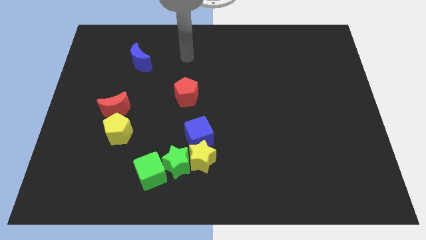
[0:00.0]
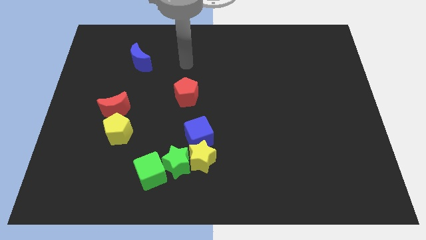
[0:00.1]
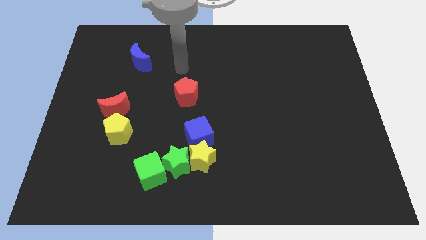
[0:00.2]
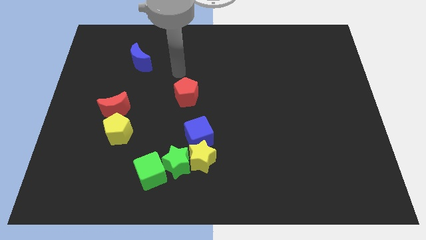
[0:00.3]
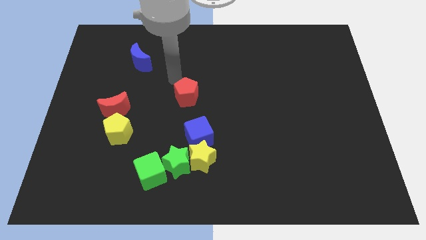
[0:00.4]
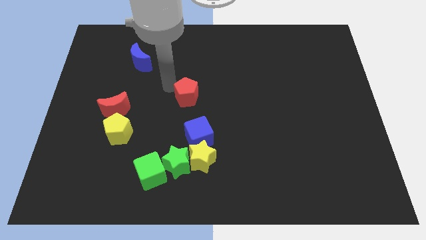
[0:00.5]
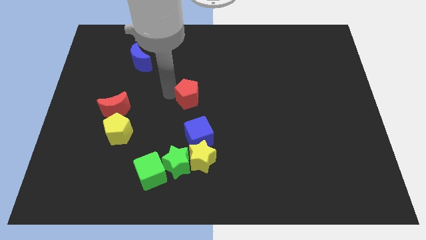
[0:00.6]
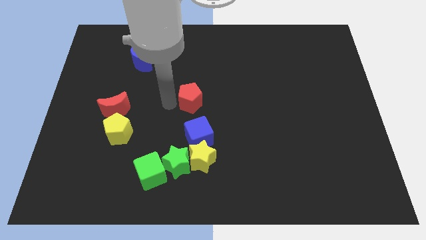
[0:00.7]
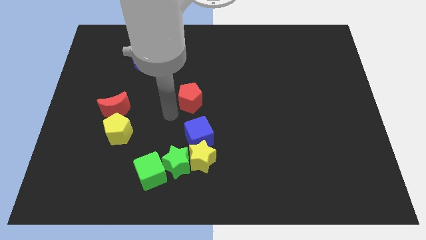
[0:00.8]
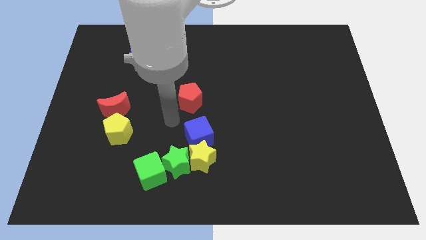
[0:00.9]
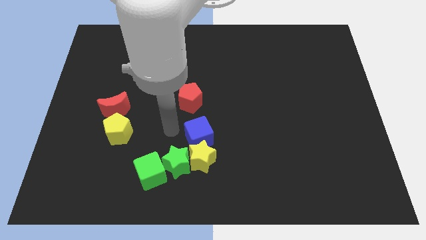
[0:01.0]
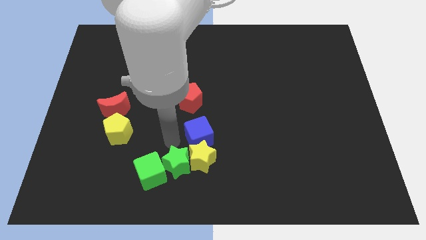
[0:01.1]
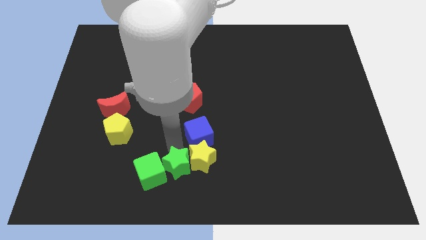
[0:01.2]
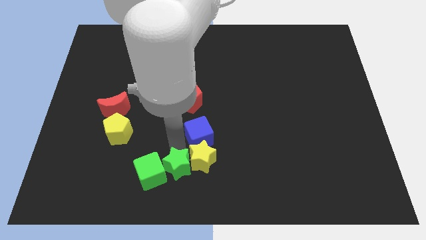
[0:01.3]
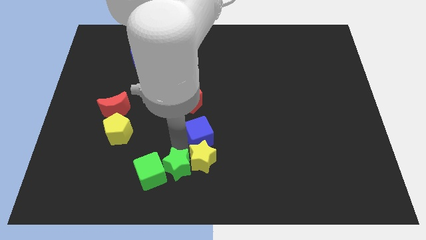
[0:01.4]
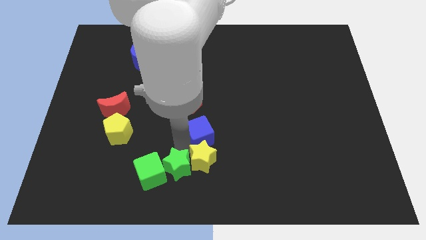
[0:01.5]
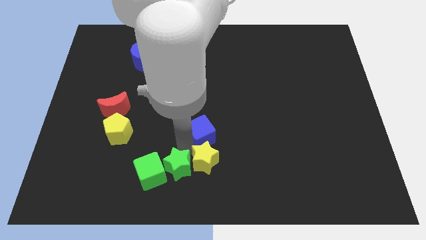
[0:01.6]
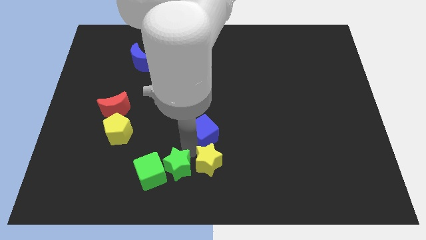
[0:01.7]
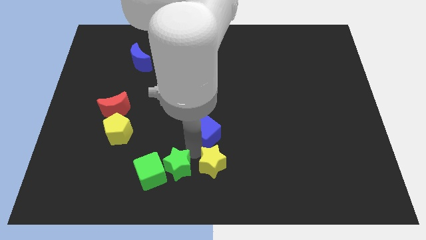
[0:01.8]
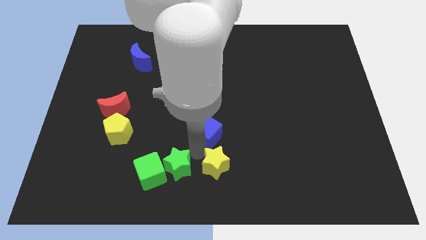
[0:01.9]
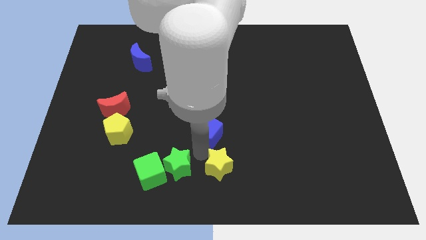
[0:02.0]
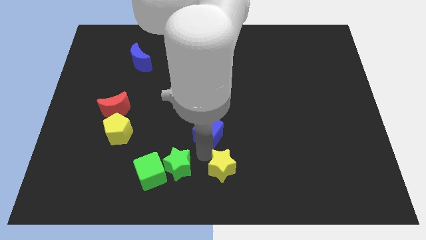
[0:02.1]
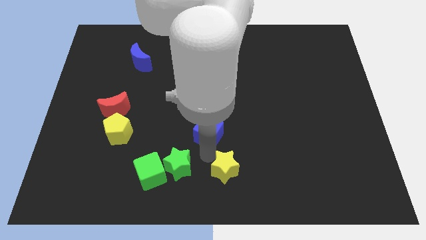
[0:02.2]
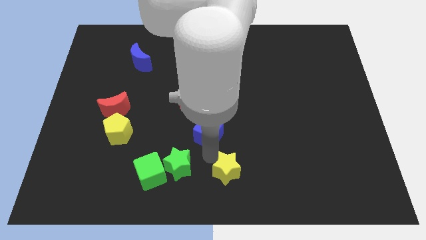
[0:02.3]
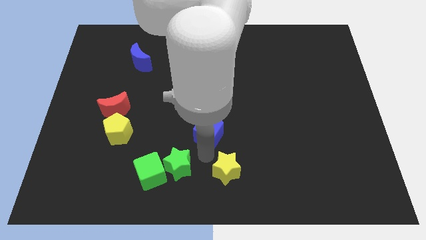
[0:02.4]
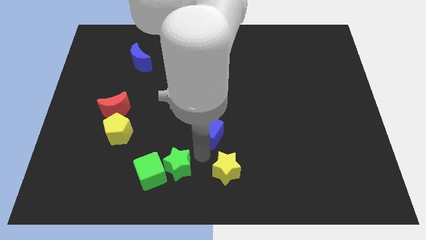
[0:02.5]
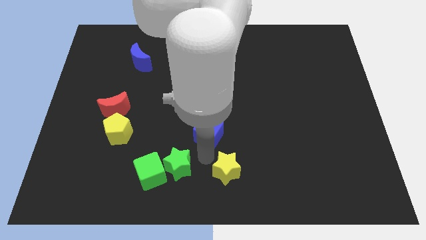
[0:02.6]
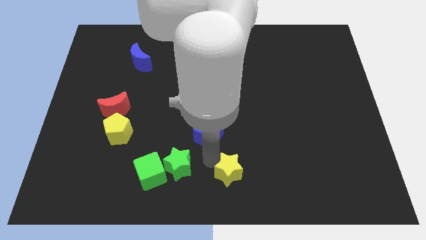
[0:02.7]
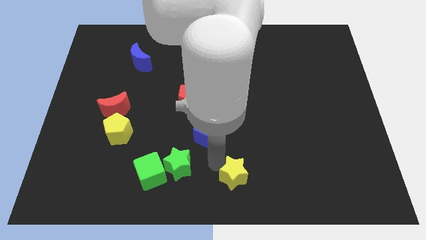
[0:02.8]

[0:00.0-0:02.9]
pull the yellow star apart from the green star and blue cube

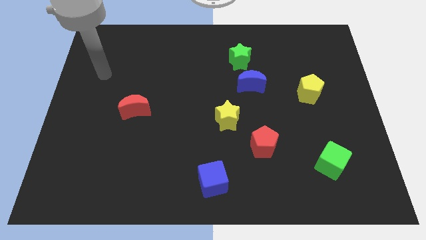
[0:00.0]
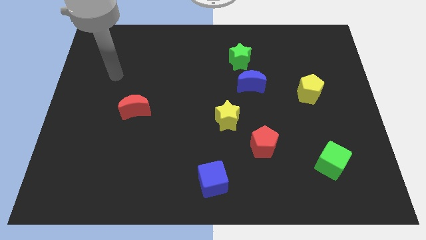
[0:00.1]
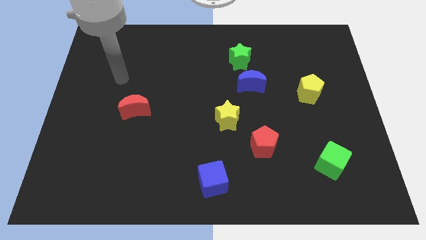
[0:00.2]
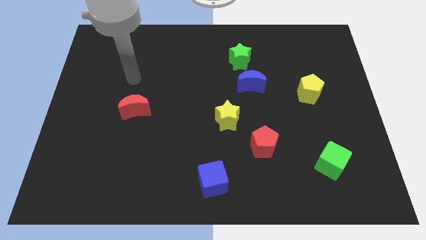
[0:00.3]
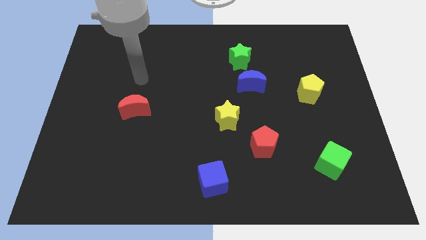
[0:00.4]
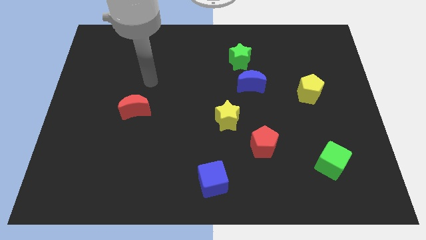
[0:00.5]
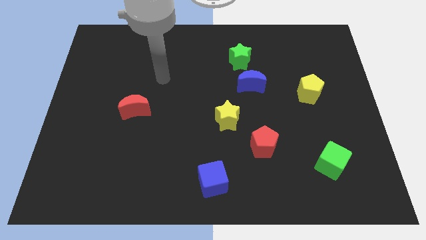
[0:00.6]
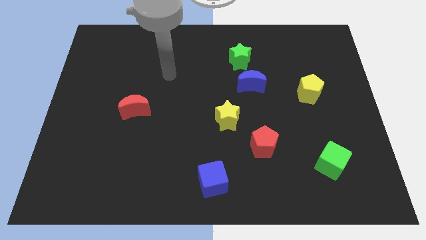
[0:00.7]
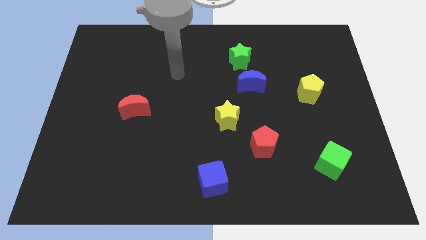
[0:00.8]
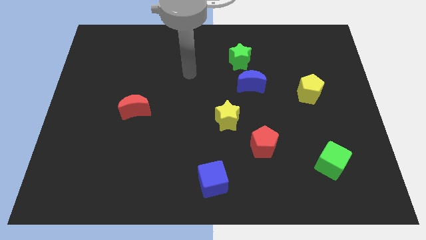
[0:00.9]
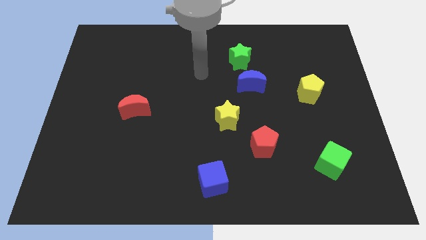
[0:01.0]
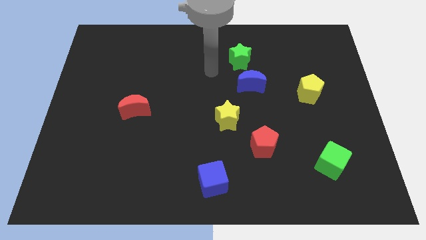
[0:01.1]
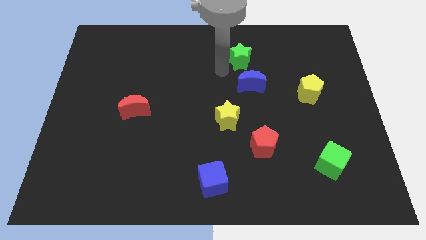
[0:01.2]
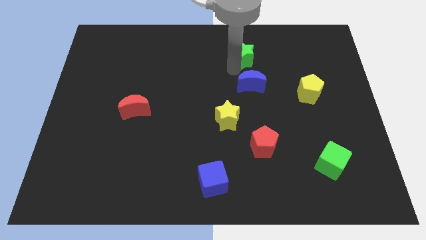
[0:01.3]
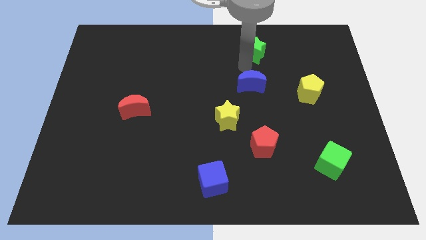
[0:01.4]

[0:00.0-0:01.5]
move the blue moon away from the green star

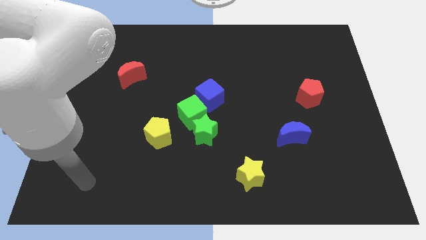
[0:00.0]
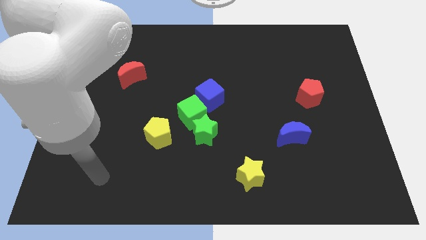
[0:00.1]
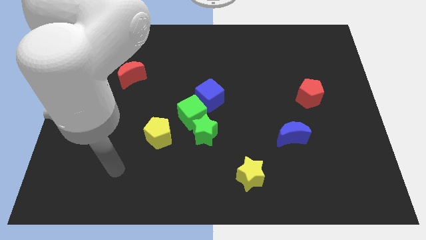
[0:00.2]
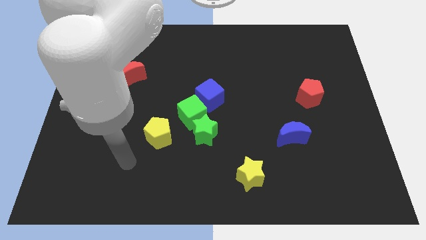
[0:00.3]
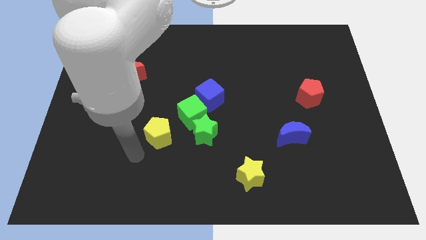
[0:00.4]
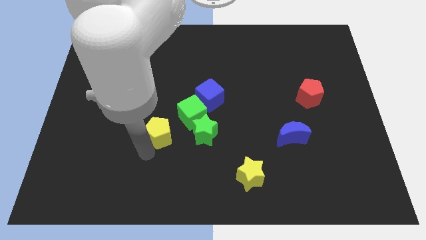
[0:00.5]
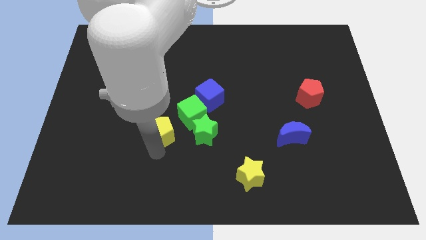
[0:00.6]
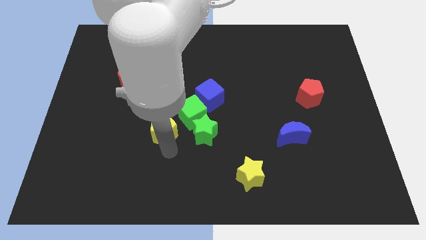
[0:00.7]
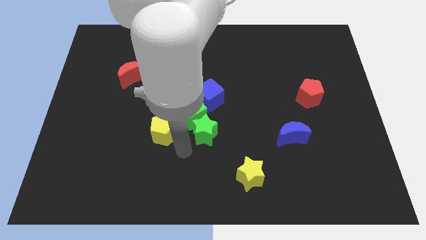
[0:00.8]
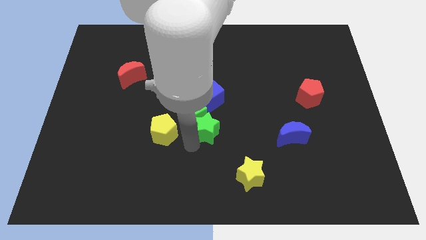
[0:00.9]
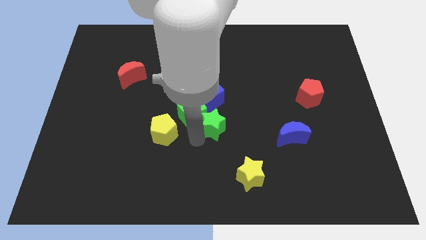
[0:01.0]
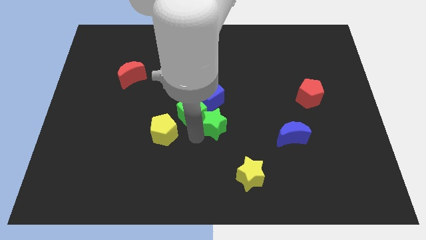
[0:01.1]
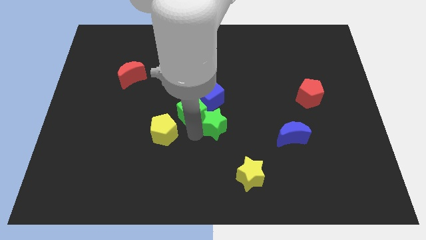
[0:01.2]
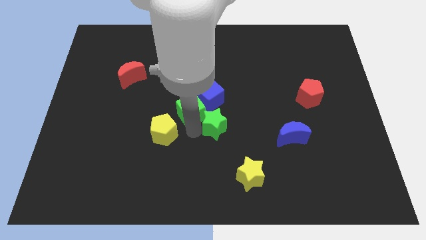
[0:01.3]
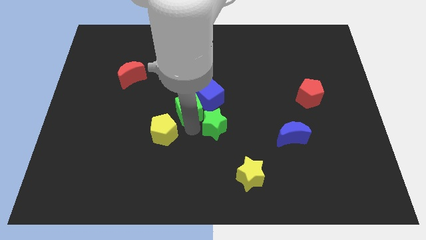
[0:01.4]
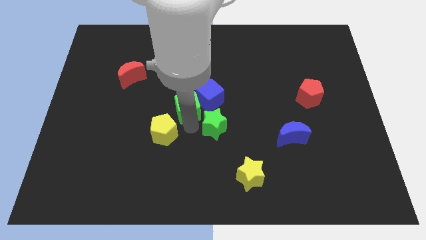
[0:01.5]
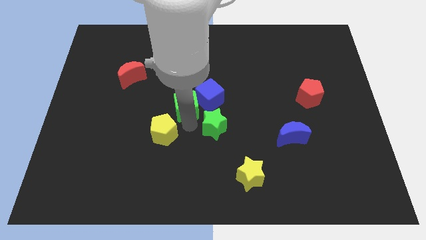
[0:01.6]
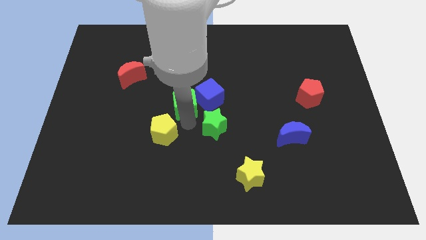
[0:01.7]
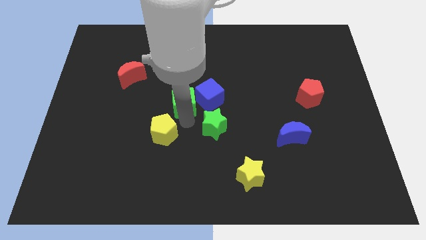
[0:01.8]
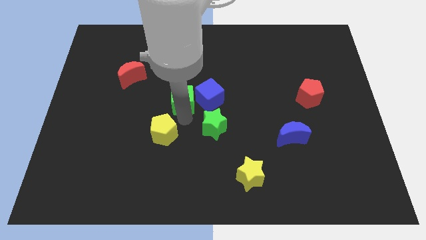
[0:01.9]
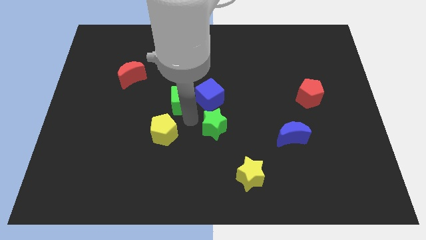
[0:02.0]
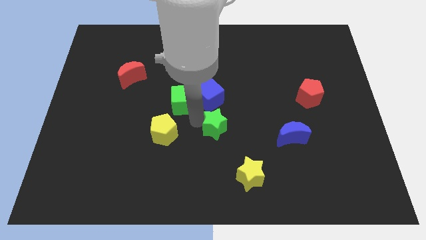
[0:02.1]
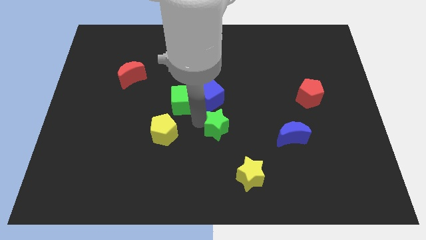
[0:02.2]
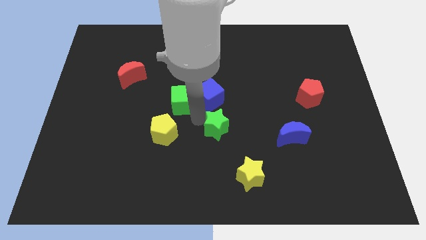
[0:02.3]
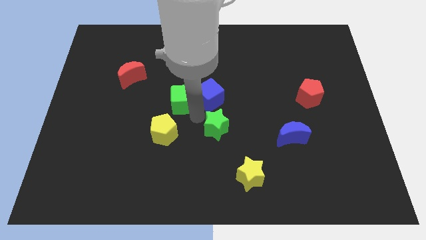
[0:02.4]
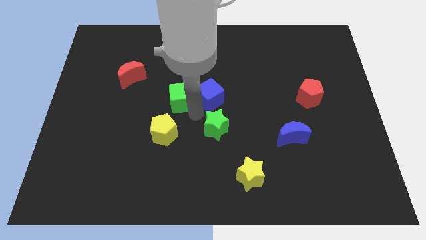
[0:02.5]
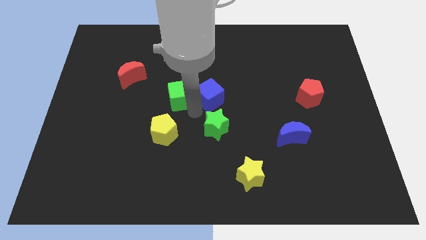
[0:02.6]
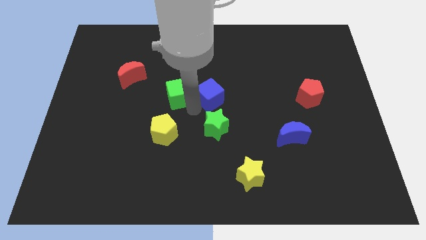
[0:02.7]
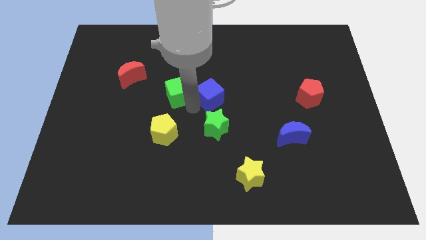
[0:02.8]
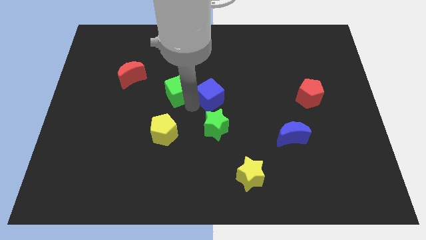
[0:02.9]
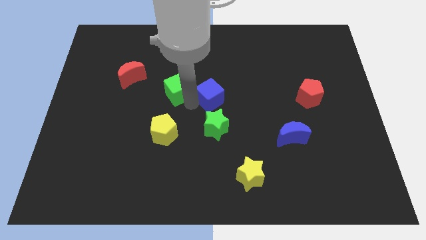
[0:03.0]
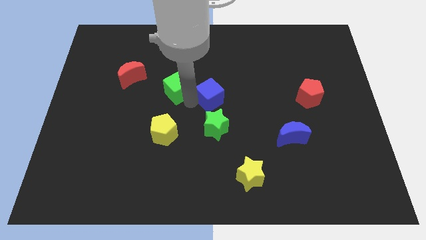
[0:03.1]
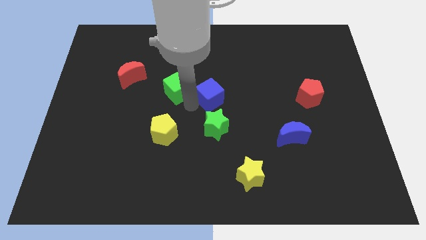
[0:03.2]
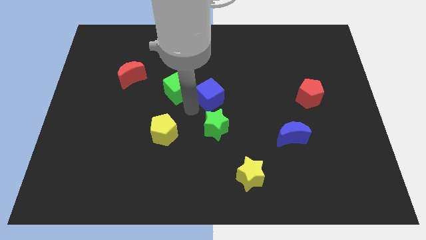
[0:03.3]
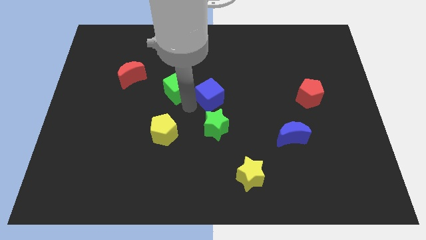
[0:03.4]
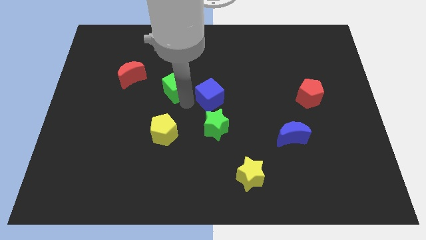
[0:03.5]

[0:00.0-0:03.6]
pull the green cube apart from the group

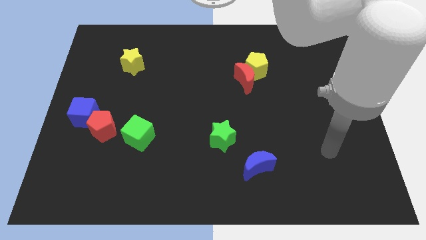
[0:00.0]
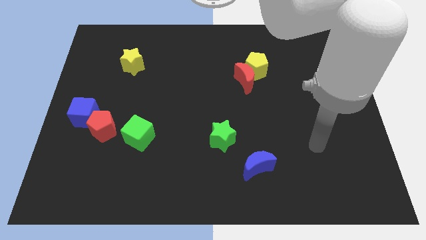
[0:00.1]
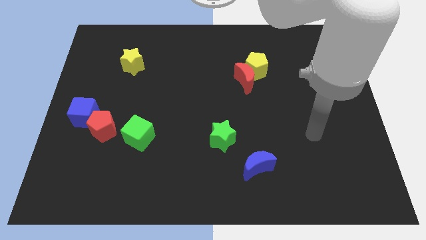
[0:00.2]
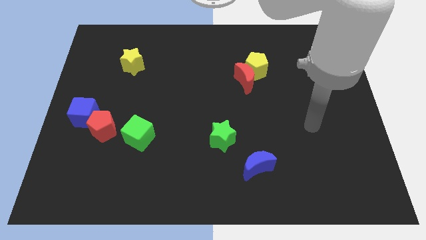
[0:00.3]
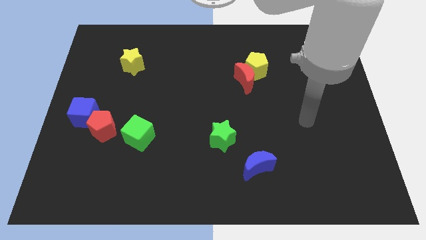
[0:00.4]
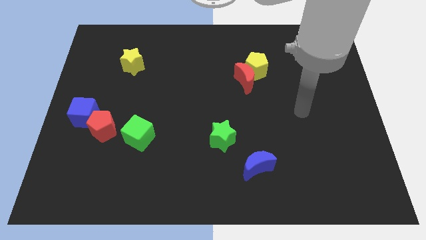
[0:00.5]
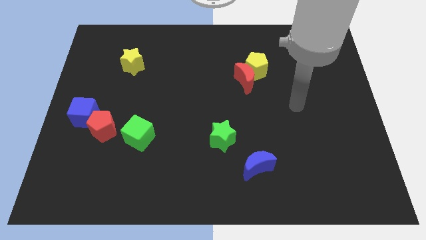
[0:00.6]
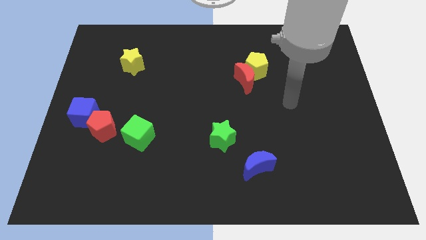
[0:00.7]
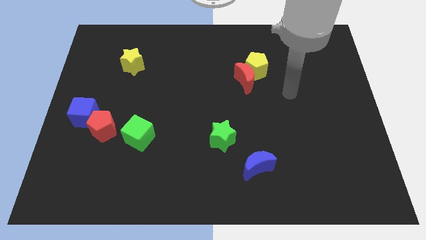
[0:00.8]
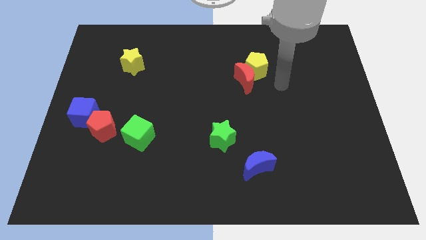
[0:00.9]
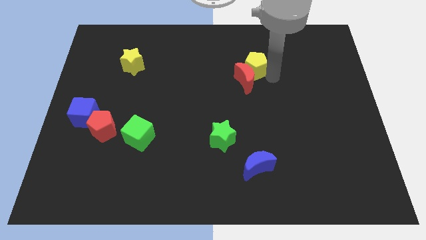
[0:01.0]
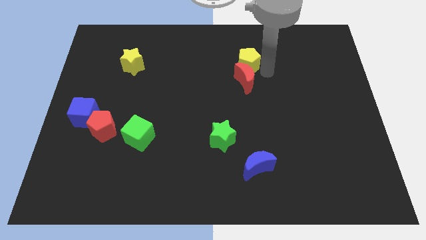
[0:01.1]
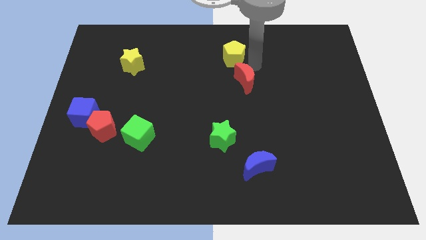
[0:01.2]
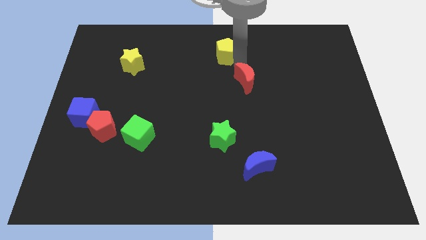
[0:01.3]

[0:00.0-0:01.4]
pull the red moon apart from the yellow pentagon
